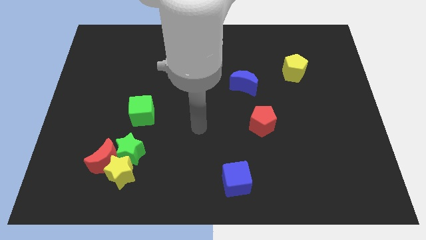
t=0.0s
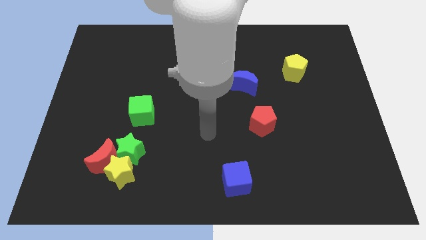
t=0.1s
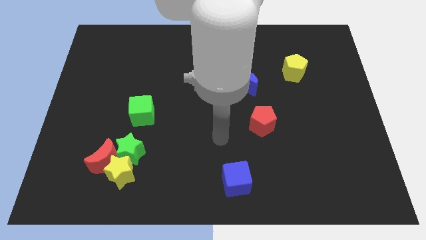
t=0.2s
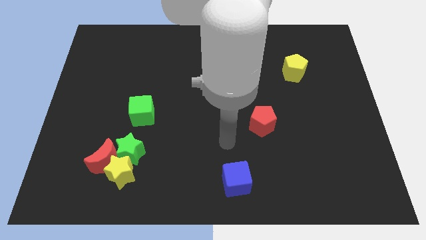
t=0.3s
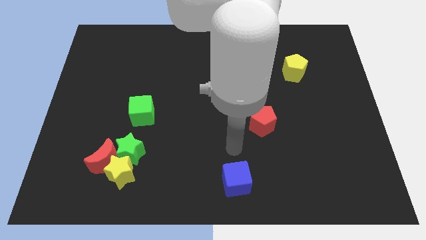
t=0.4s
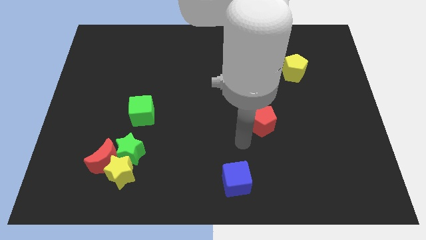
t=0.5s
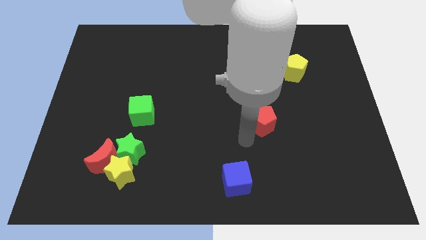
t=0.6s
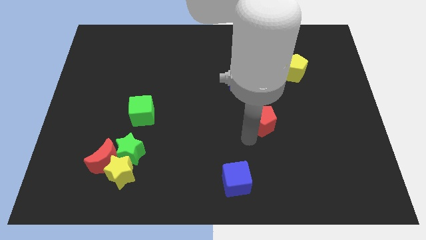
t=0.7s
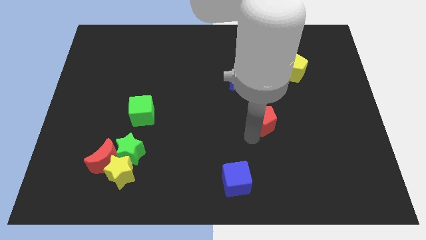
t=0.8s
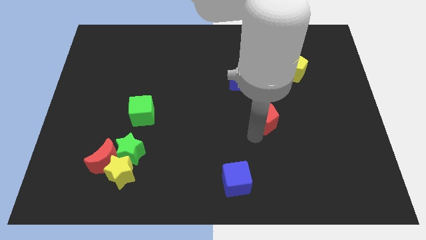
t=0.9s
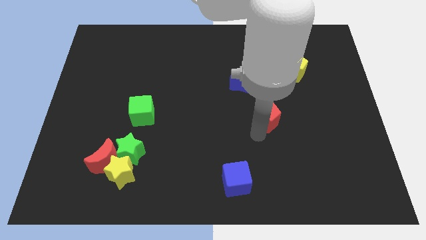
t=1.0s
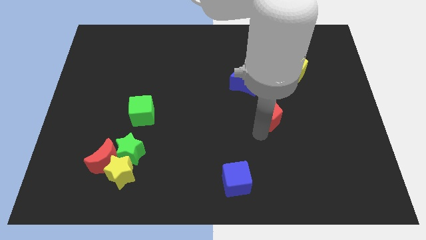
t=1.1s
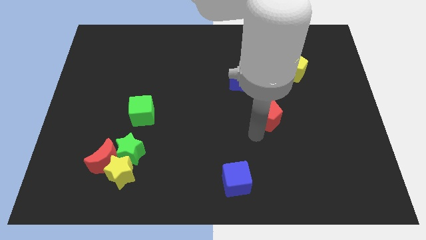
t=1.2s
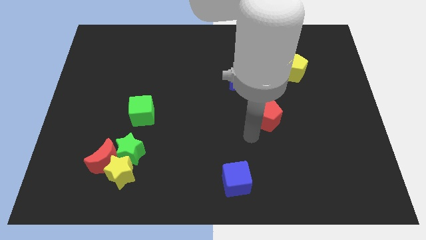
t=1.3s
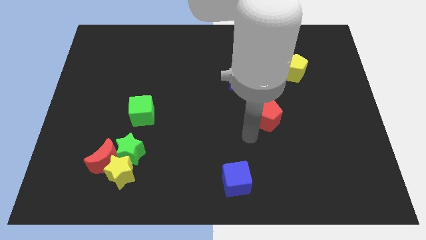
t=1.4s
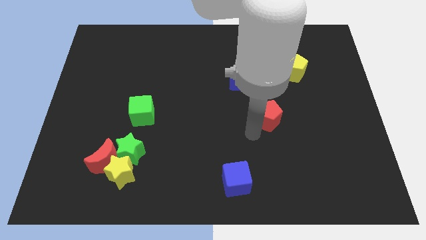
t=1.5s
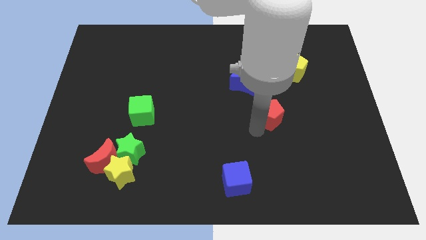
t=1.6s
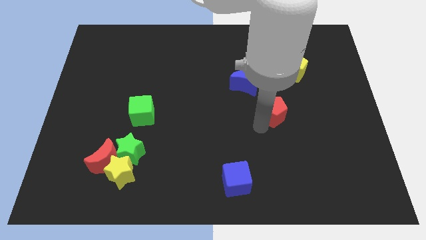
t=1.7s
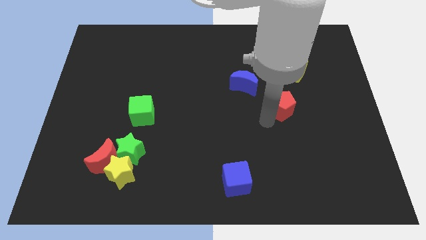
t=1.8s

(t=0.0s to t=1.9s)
slightly push the red pentagon upwards and right

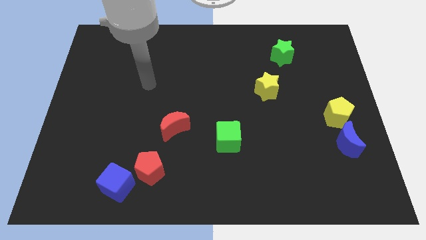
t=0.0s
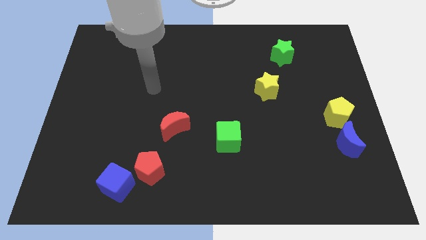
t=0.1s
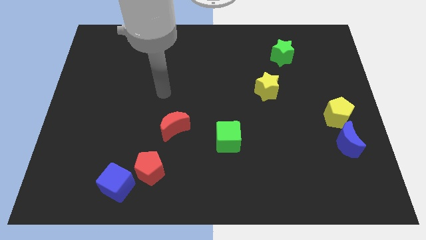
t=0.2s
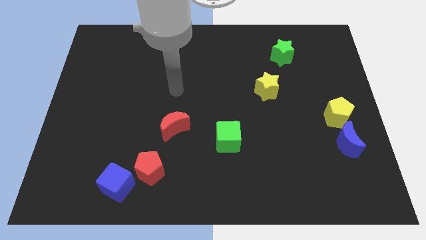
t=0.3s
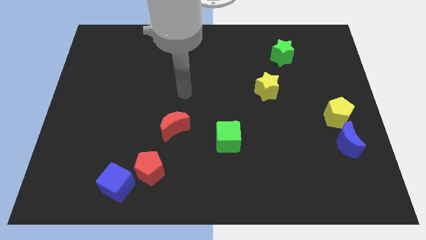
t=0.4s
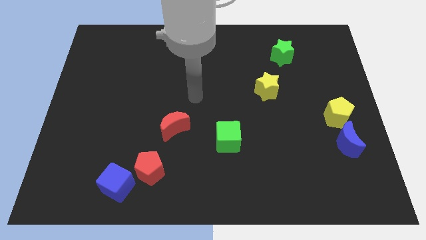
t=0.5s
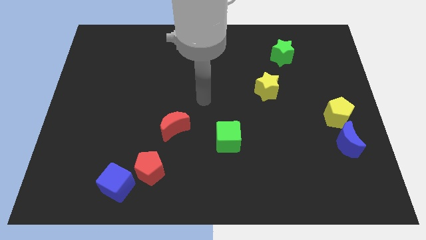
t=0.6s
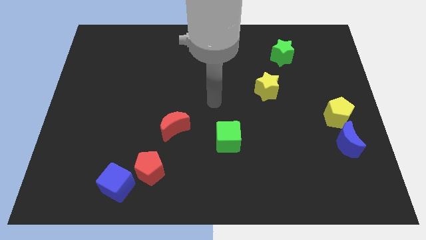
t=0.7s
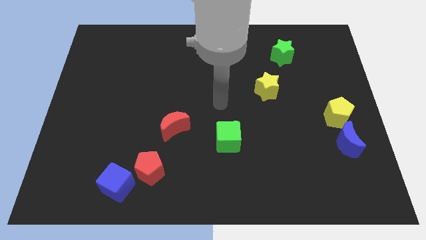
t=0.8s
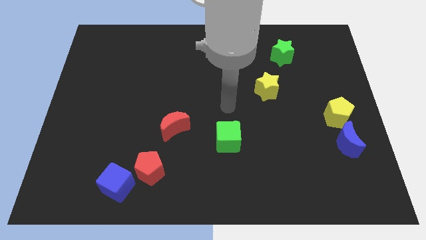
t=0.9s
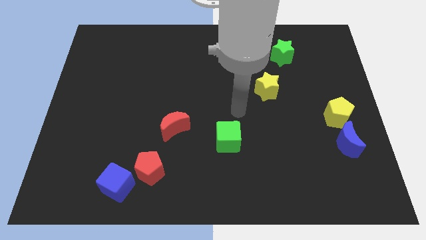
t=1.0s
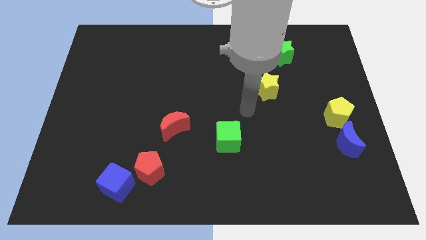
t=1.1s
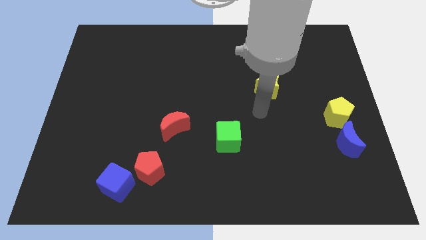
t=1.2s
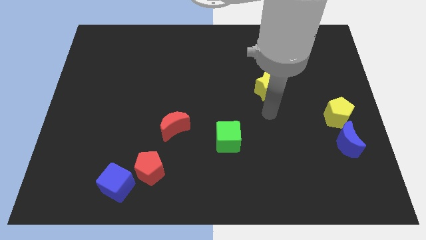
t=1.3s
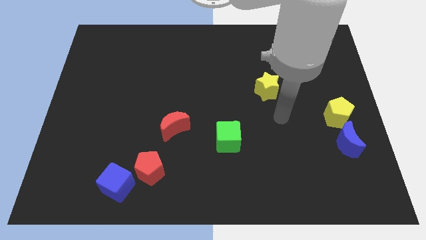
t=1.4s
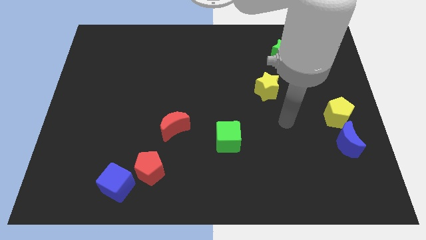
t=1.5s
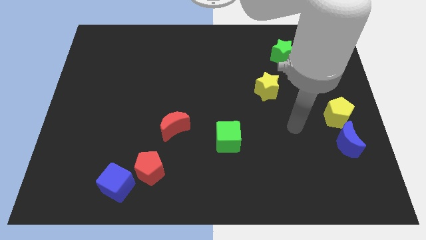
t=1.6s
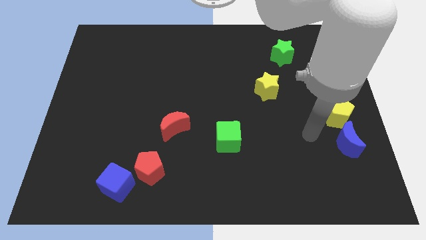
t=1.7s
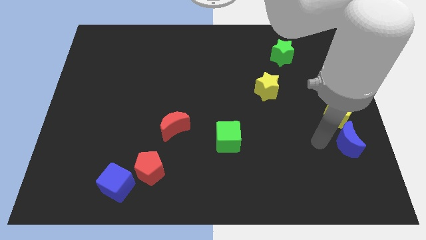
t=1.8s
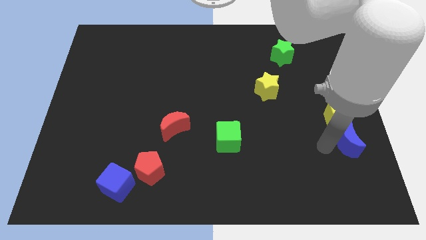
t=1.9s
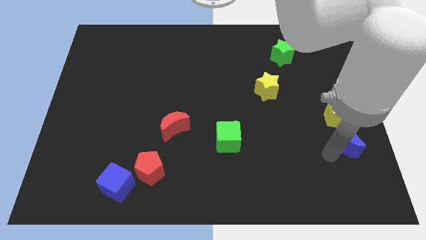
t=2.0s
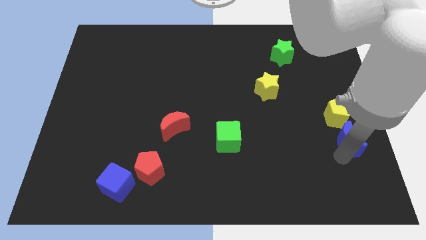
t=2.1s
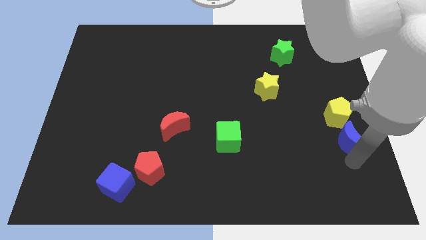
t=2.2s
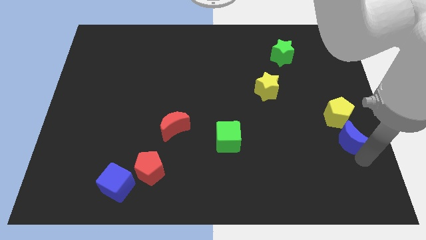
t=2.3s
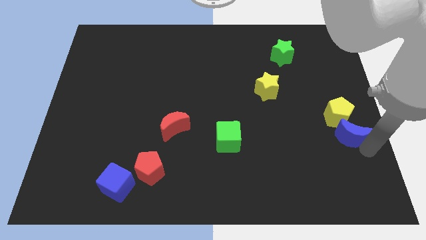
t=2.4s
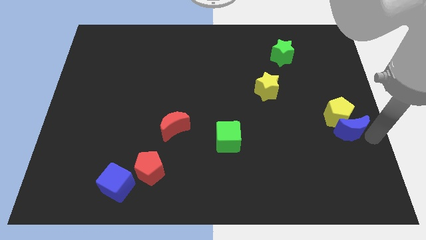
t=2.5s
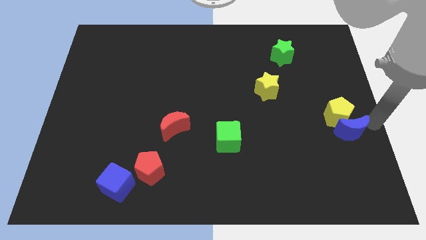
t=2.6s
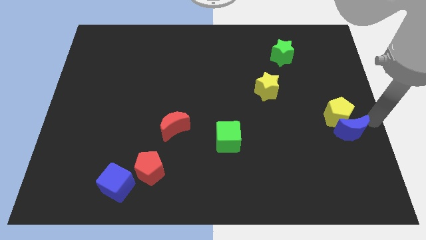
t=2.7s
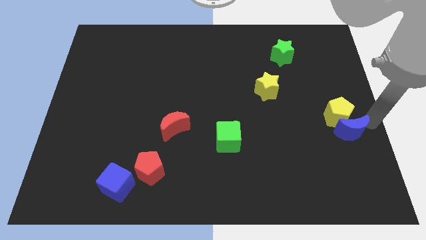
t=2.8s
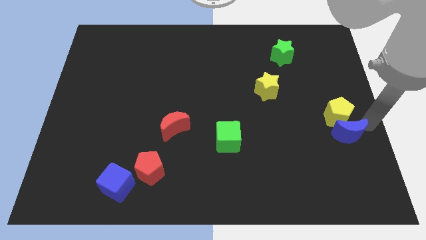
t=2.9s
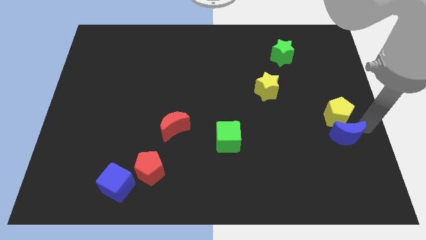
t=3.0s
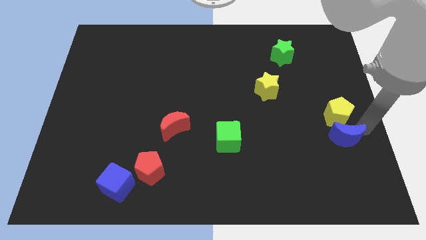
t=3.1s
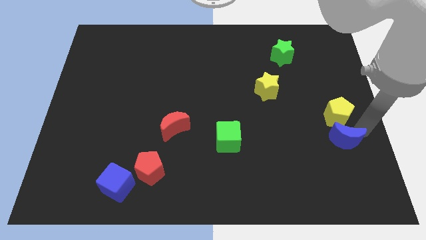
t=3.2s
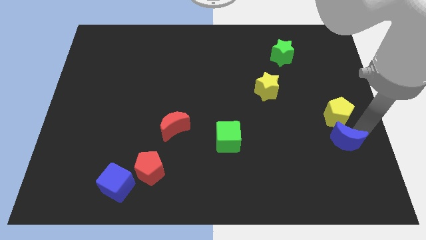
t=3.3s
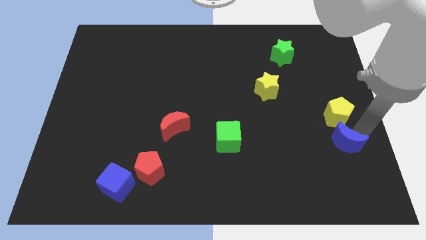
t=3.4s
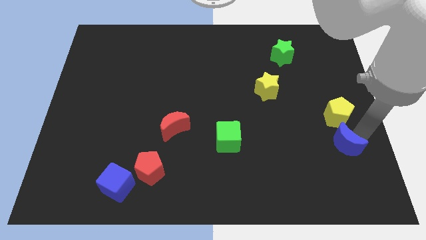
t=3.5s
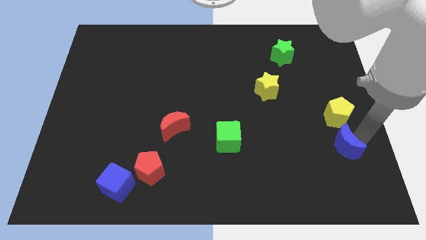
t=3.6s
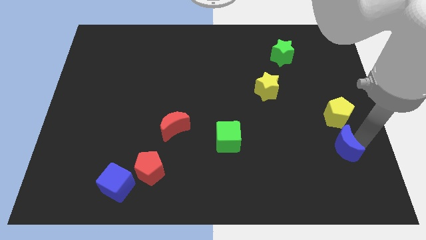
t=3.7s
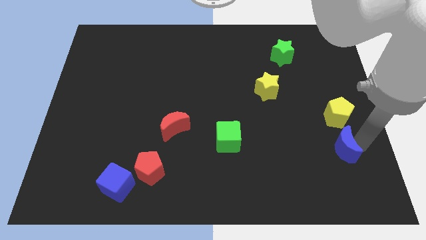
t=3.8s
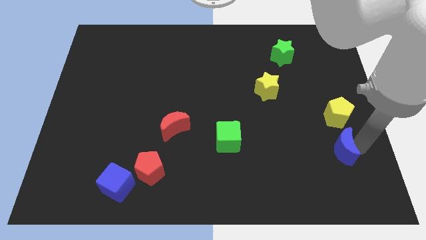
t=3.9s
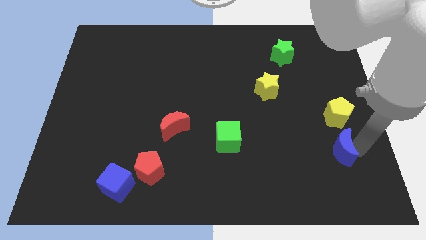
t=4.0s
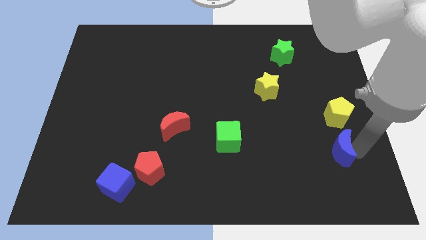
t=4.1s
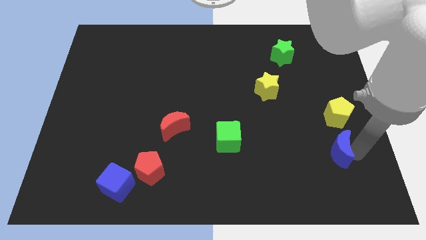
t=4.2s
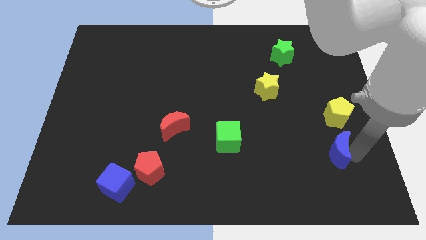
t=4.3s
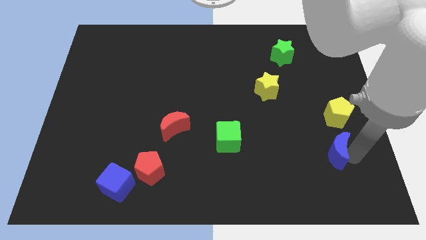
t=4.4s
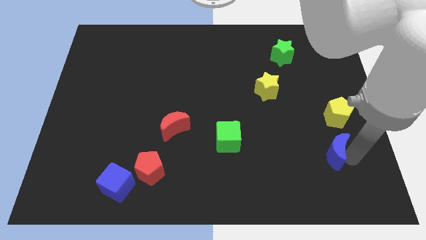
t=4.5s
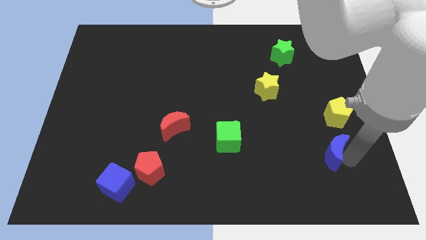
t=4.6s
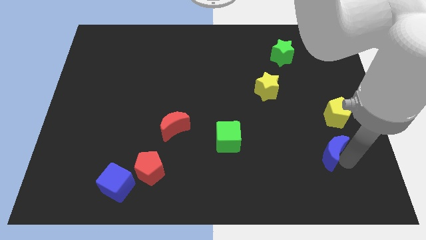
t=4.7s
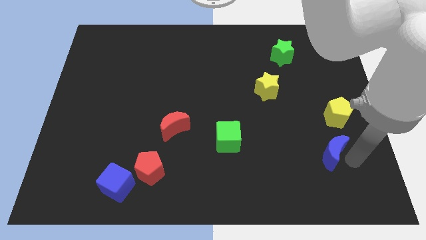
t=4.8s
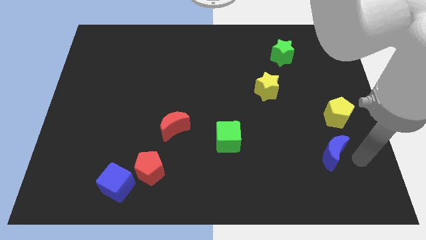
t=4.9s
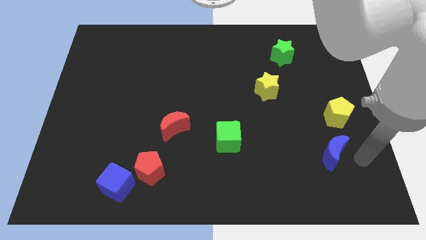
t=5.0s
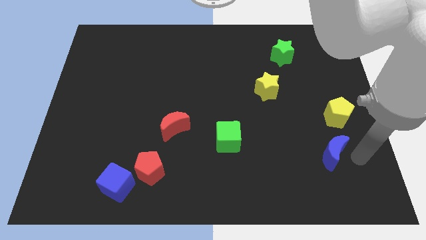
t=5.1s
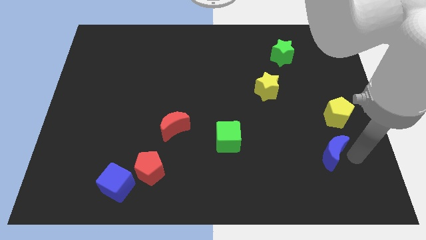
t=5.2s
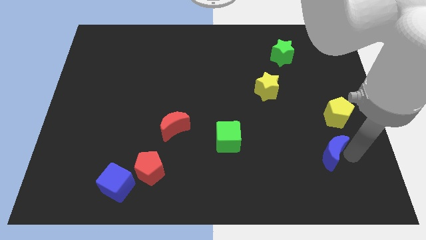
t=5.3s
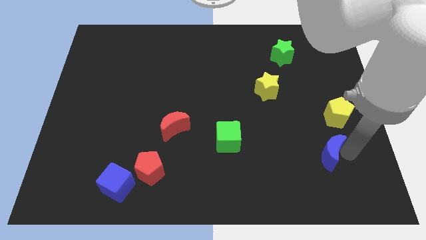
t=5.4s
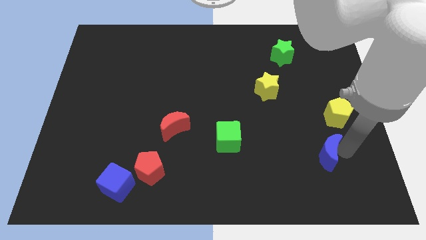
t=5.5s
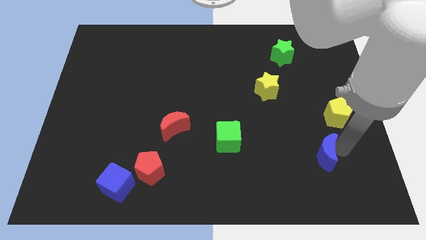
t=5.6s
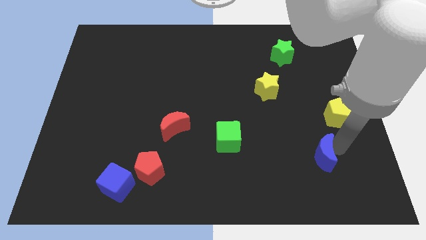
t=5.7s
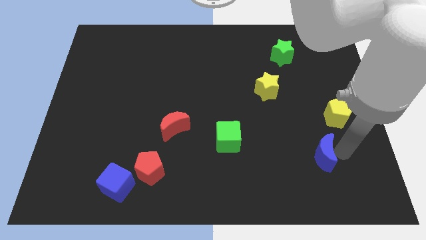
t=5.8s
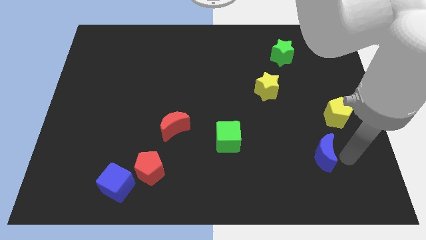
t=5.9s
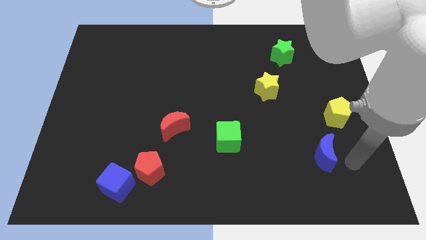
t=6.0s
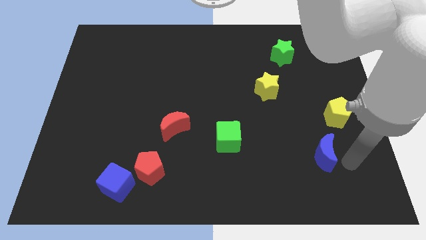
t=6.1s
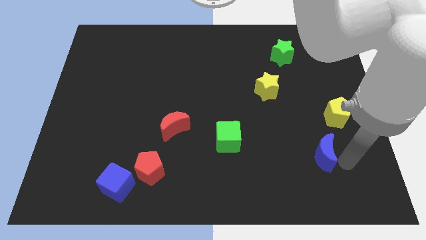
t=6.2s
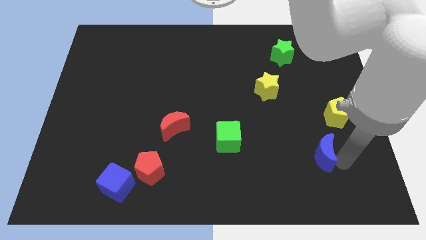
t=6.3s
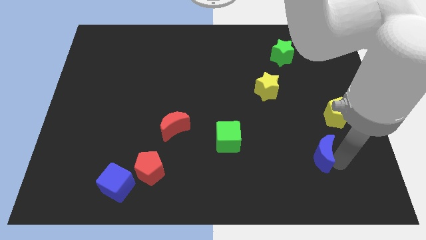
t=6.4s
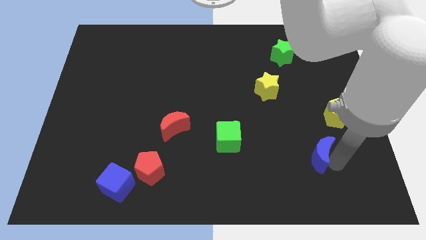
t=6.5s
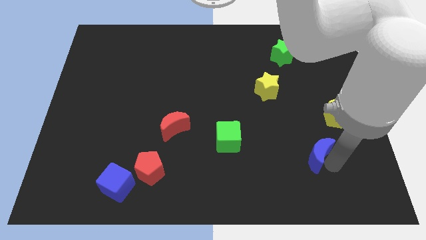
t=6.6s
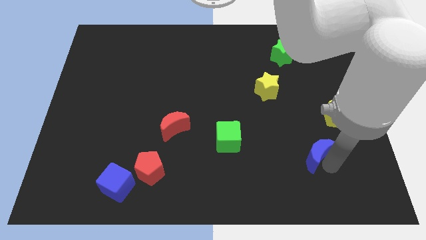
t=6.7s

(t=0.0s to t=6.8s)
slide the blue moon somewhat left
